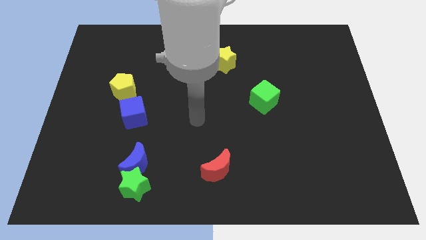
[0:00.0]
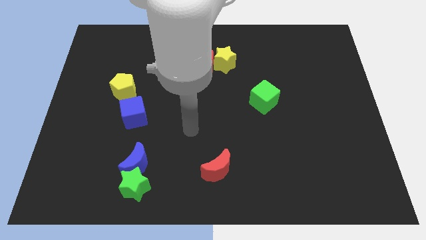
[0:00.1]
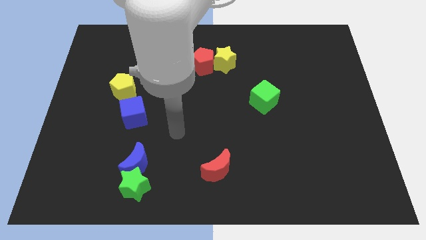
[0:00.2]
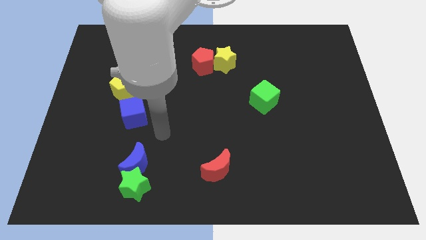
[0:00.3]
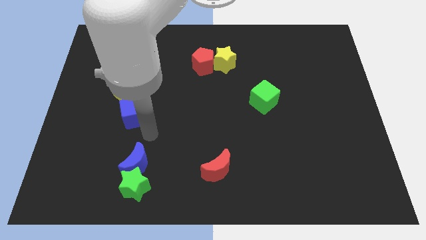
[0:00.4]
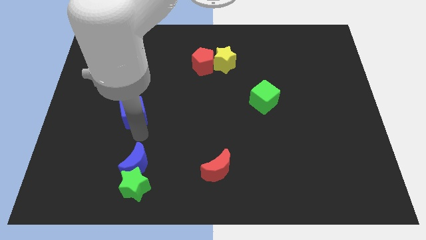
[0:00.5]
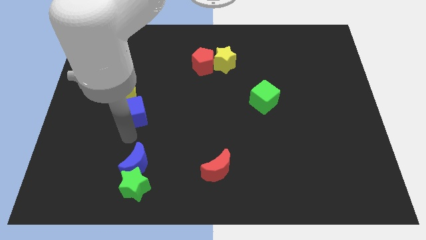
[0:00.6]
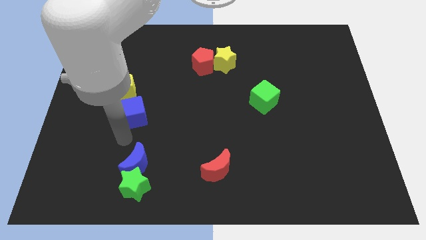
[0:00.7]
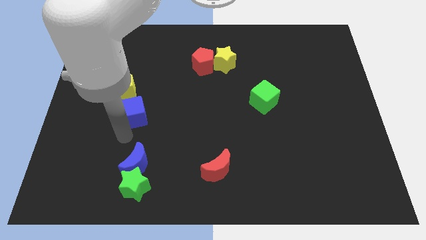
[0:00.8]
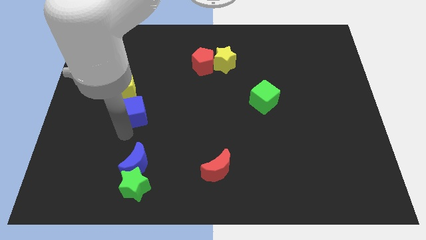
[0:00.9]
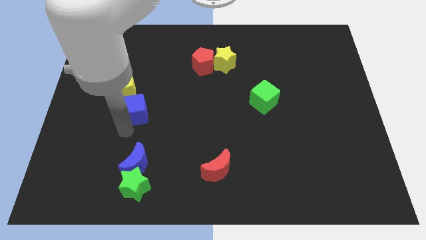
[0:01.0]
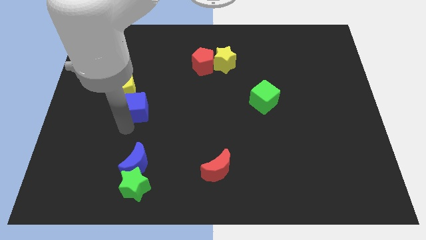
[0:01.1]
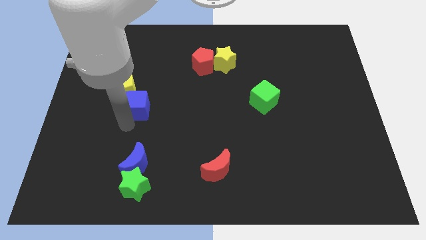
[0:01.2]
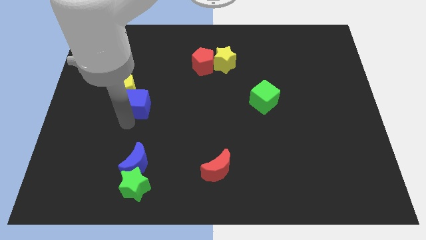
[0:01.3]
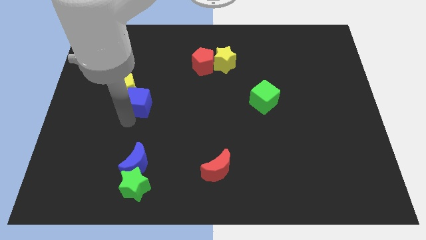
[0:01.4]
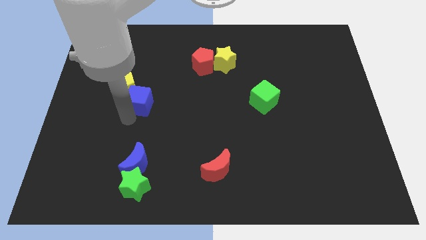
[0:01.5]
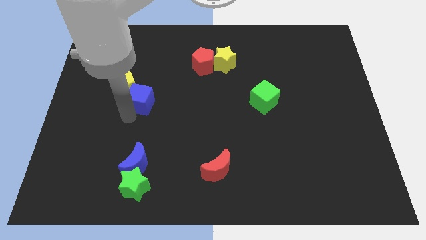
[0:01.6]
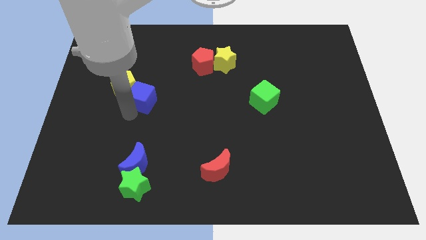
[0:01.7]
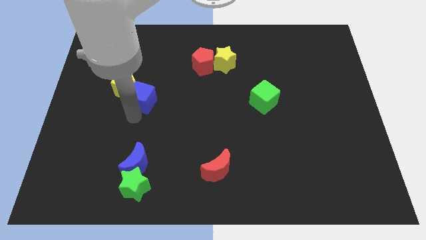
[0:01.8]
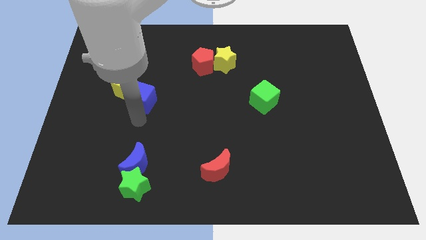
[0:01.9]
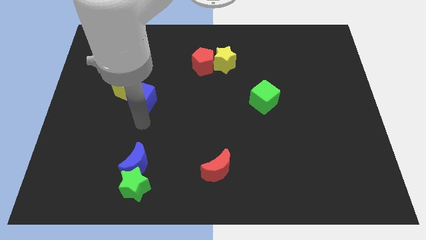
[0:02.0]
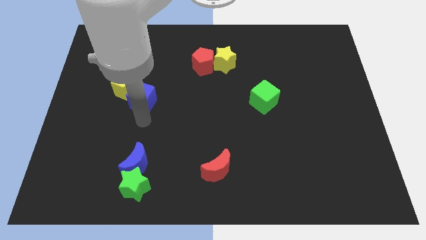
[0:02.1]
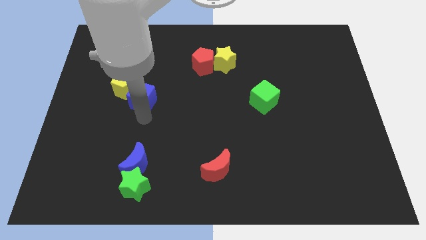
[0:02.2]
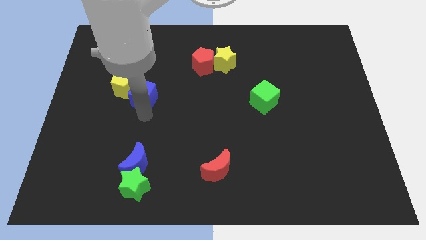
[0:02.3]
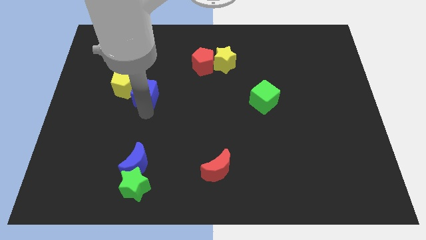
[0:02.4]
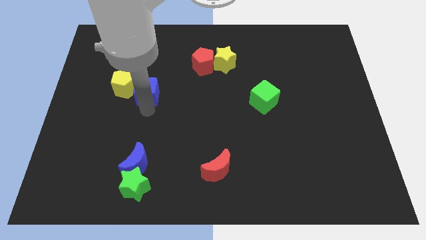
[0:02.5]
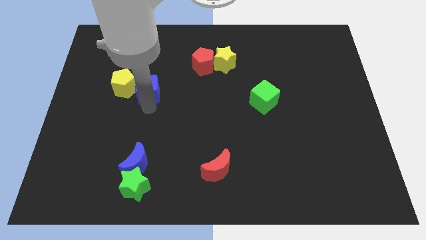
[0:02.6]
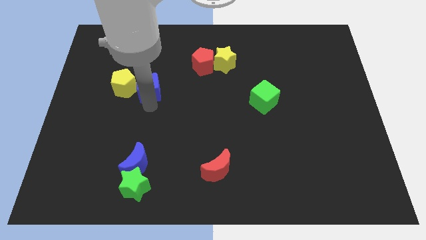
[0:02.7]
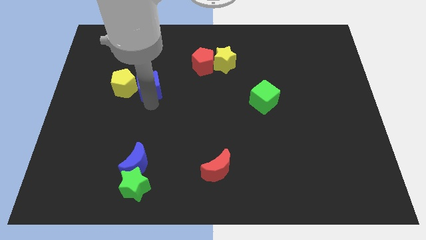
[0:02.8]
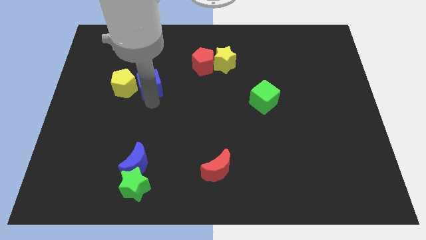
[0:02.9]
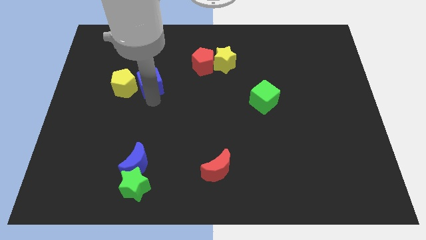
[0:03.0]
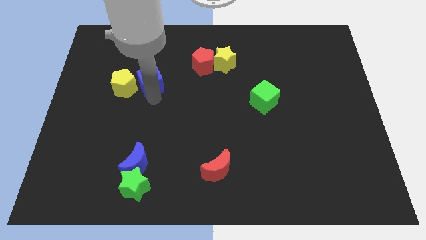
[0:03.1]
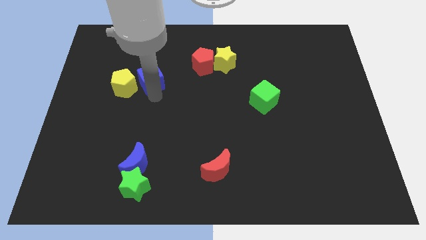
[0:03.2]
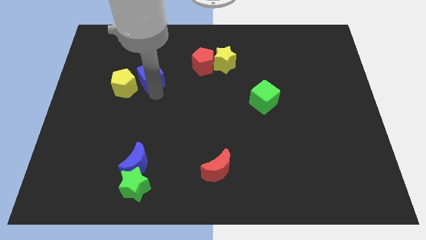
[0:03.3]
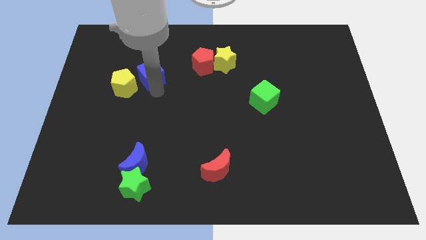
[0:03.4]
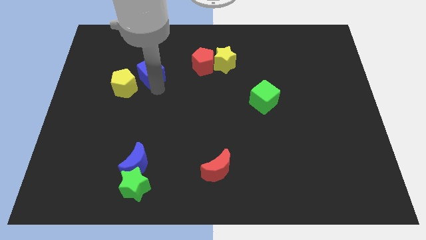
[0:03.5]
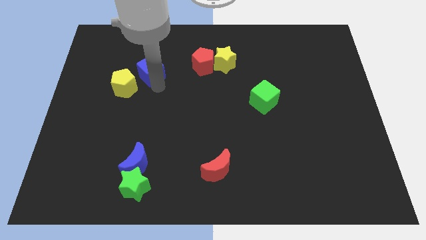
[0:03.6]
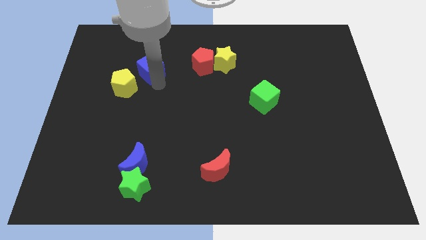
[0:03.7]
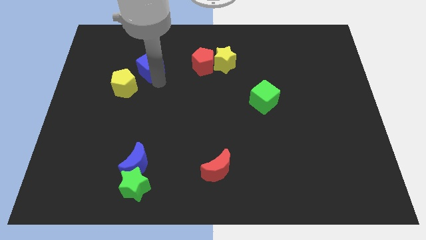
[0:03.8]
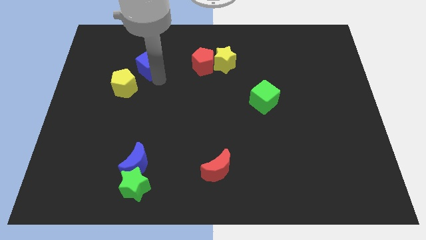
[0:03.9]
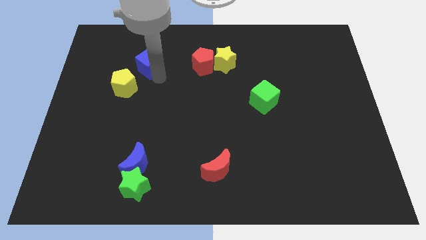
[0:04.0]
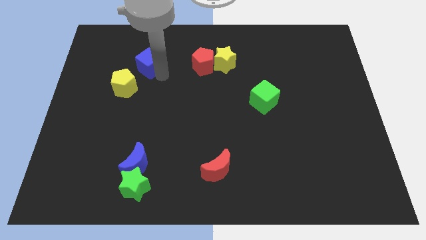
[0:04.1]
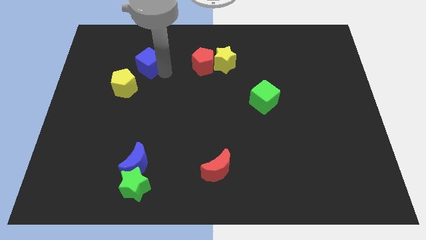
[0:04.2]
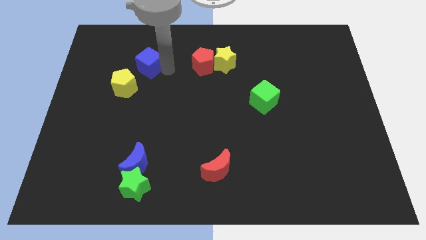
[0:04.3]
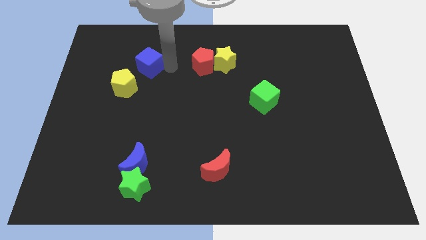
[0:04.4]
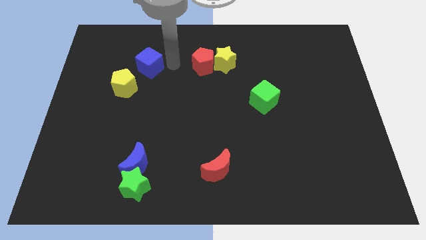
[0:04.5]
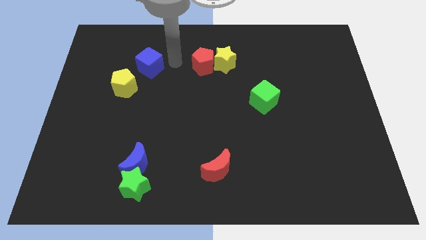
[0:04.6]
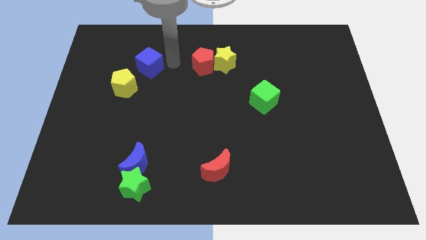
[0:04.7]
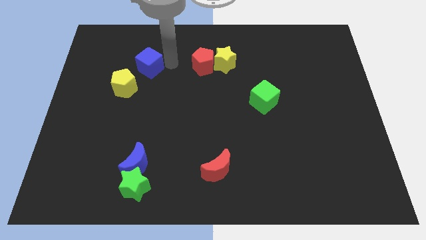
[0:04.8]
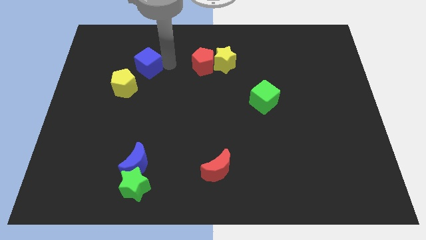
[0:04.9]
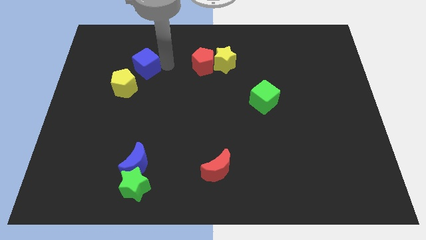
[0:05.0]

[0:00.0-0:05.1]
move the blue cube to the top of the yellow pentagon

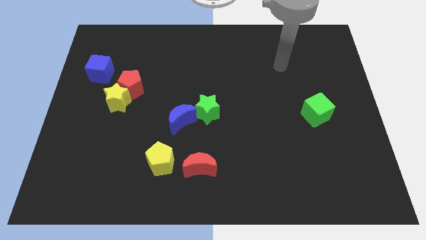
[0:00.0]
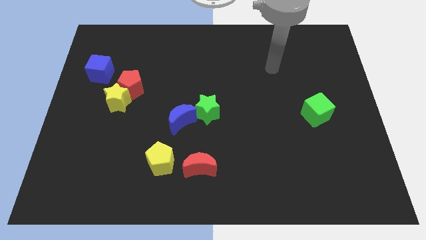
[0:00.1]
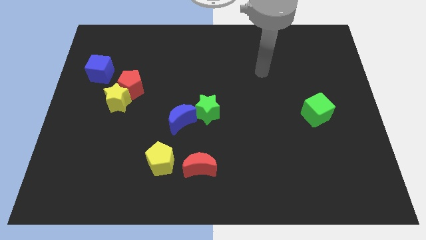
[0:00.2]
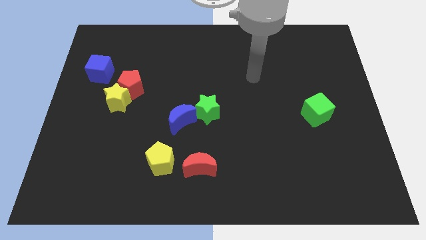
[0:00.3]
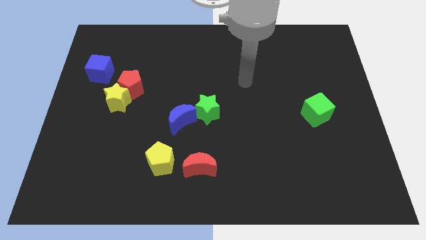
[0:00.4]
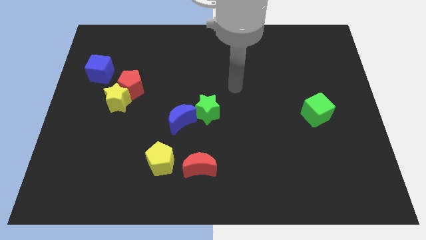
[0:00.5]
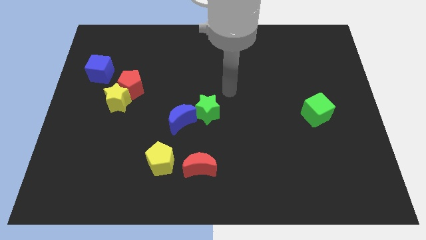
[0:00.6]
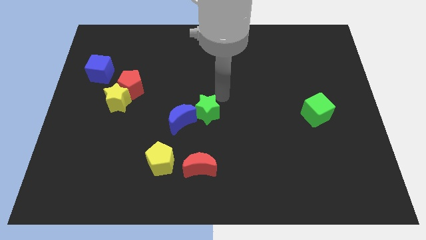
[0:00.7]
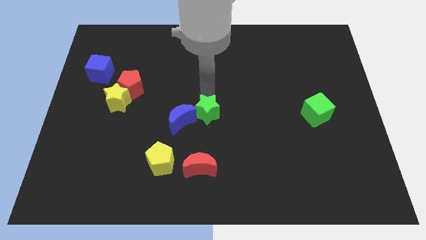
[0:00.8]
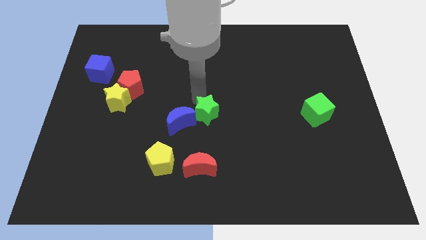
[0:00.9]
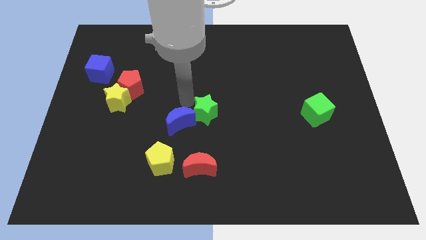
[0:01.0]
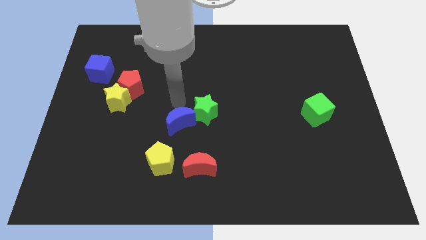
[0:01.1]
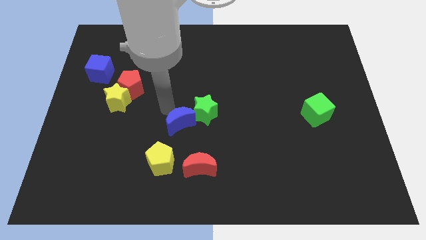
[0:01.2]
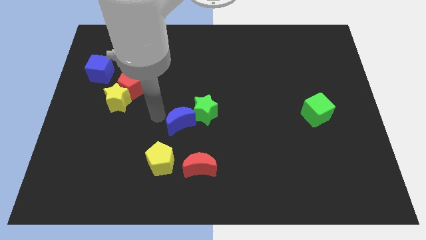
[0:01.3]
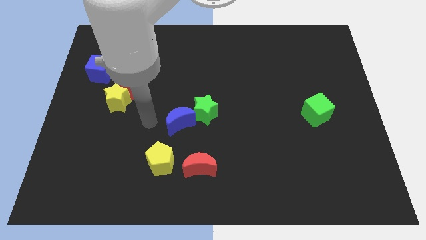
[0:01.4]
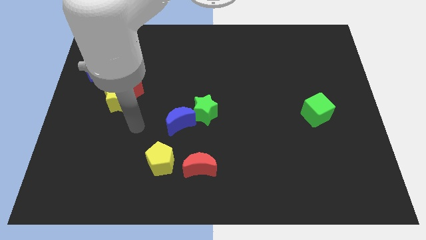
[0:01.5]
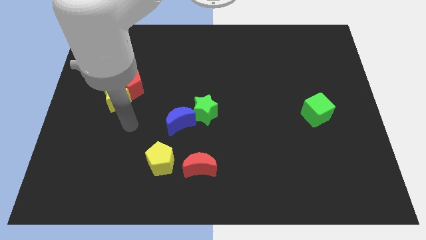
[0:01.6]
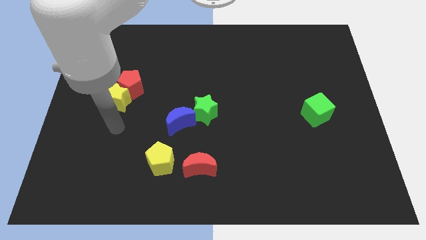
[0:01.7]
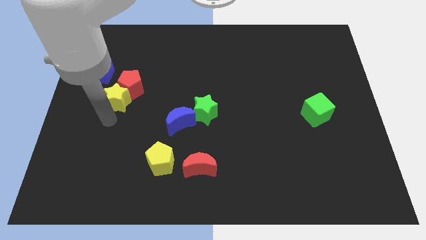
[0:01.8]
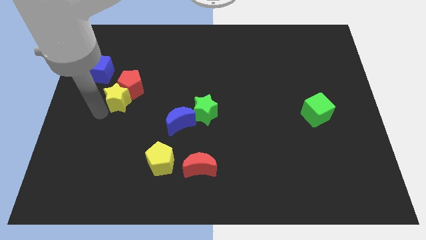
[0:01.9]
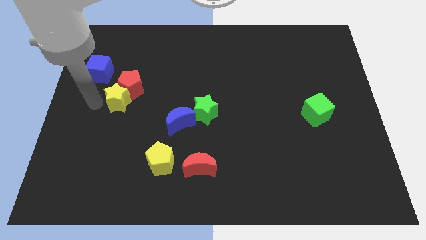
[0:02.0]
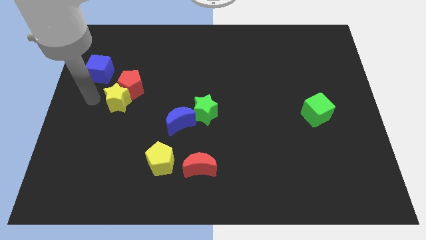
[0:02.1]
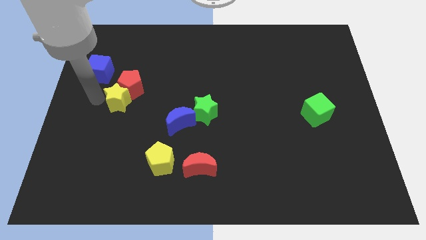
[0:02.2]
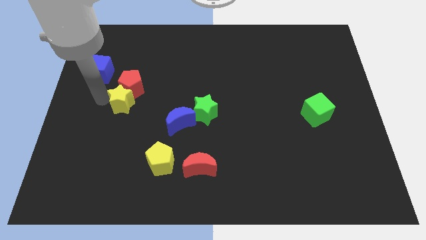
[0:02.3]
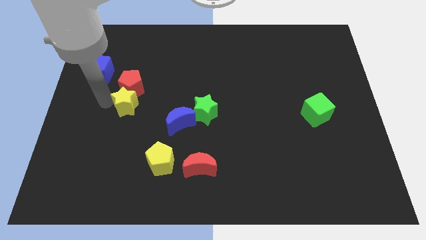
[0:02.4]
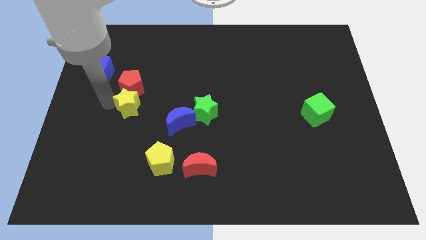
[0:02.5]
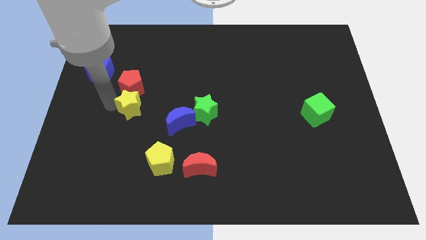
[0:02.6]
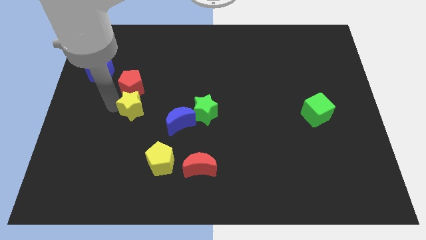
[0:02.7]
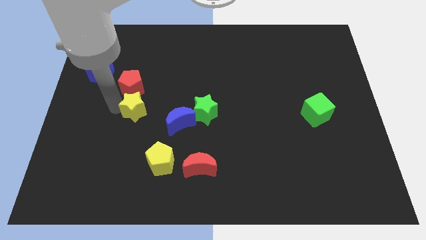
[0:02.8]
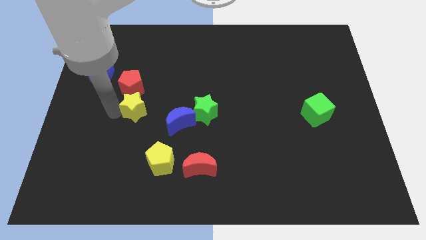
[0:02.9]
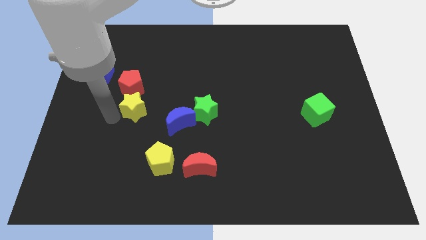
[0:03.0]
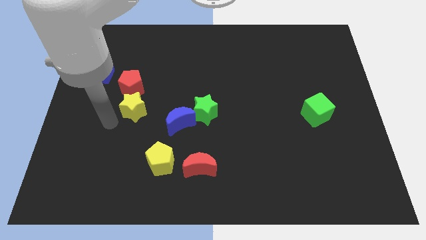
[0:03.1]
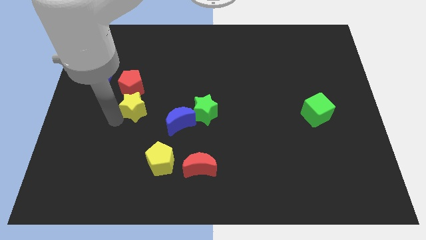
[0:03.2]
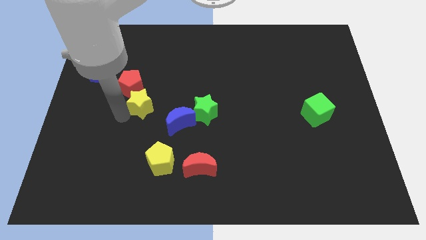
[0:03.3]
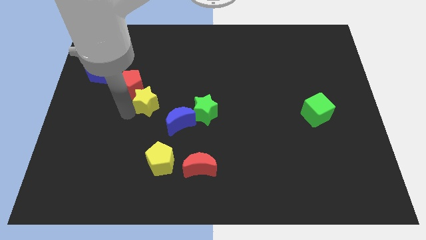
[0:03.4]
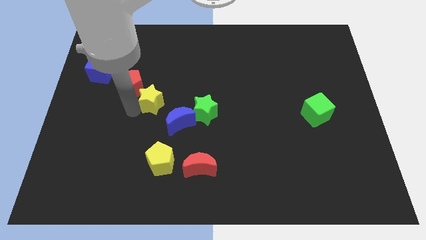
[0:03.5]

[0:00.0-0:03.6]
push the yellow star to the right of the red pentagon
